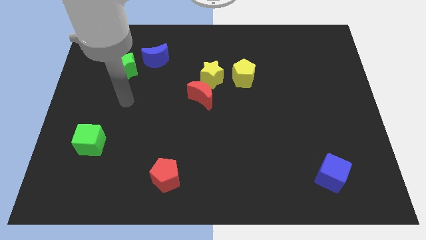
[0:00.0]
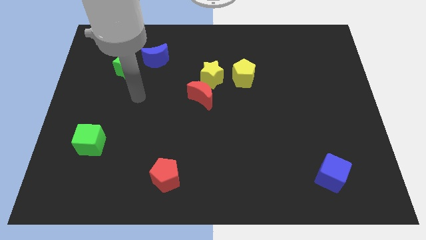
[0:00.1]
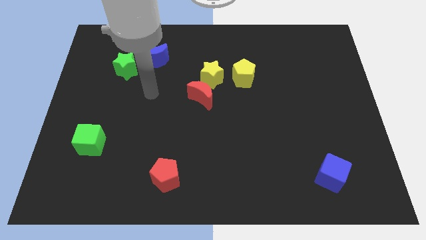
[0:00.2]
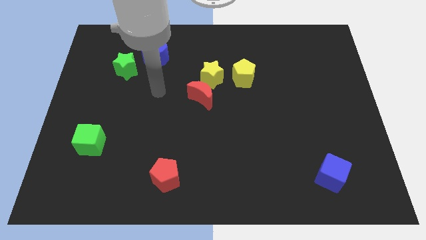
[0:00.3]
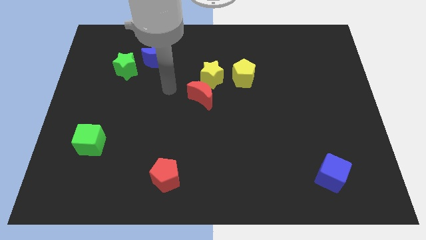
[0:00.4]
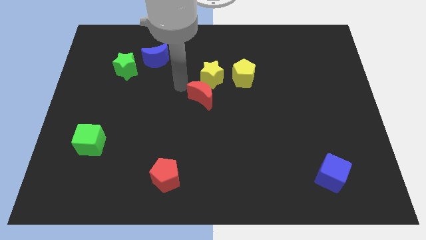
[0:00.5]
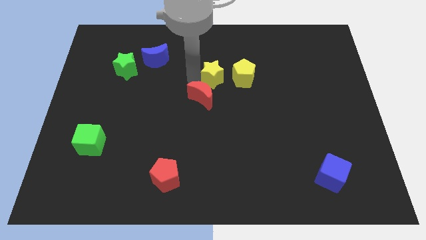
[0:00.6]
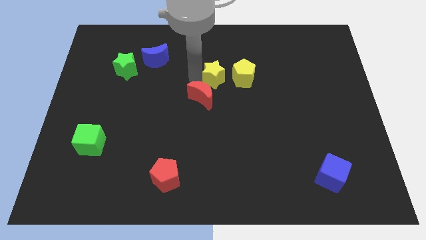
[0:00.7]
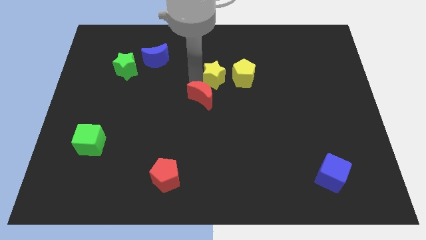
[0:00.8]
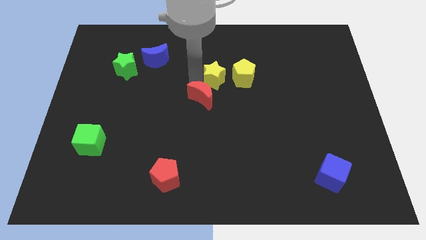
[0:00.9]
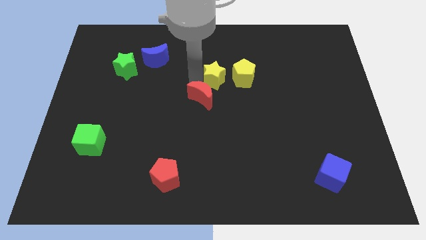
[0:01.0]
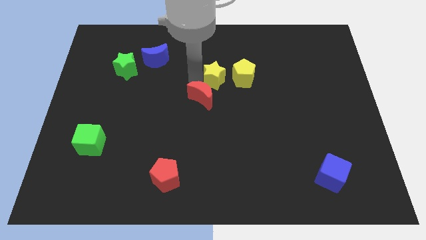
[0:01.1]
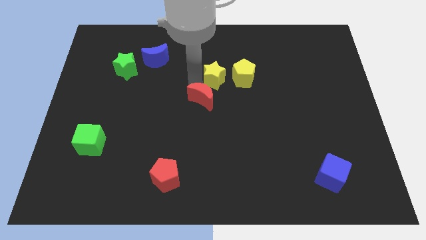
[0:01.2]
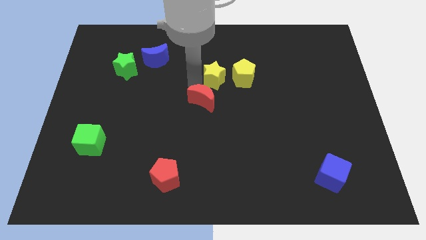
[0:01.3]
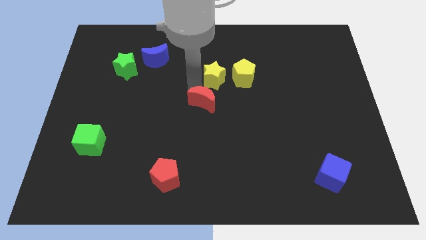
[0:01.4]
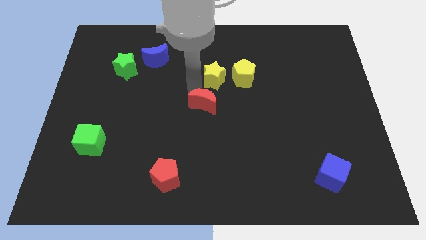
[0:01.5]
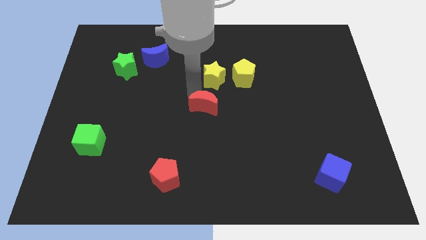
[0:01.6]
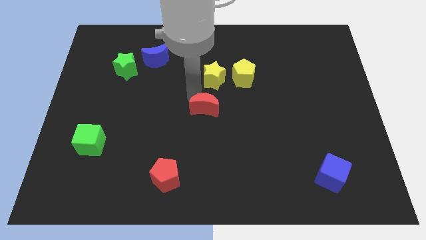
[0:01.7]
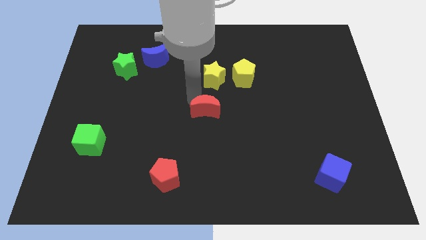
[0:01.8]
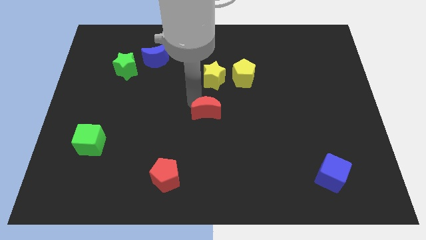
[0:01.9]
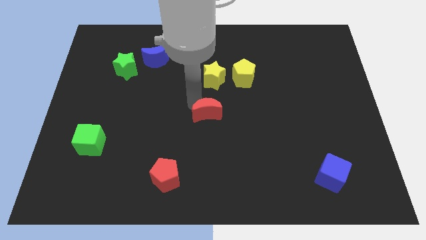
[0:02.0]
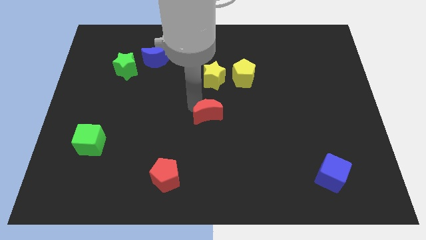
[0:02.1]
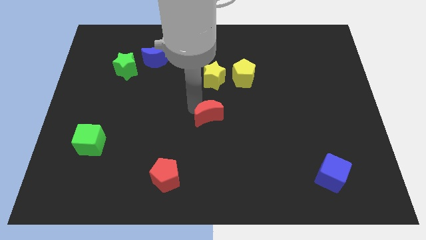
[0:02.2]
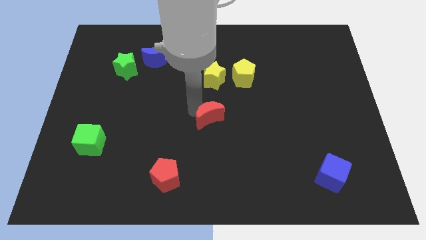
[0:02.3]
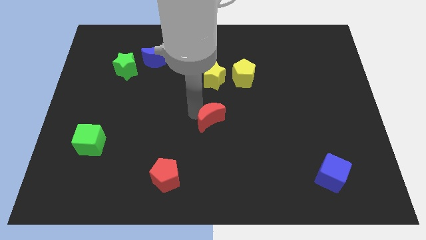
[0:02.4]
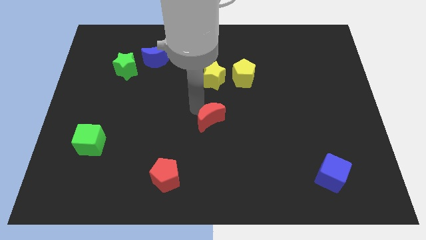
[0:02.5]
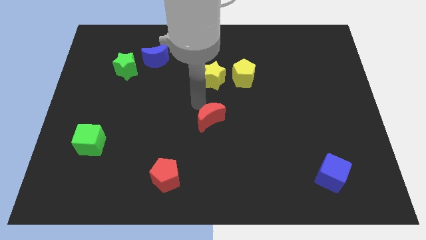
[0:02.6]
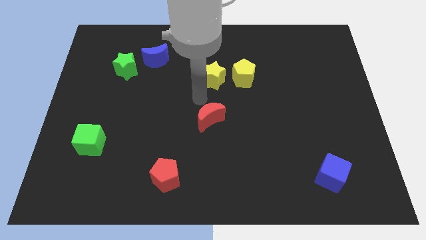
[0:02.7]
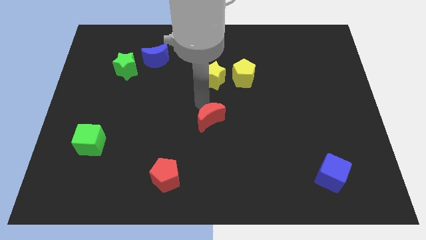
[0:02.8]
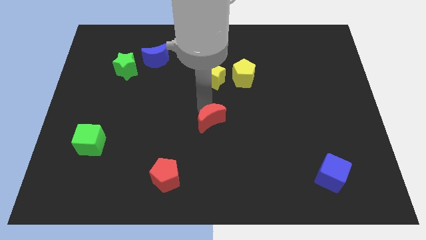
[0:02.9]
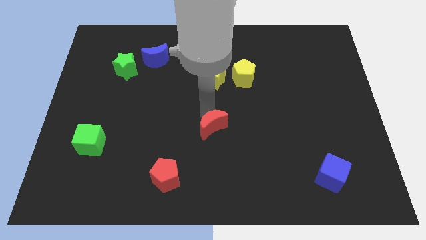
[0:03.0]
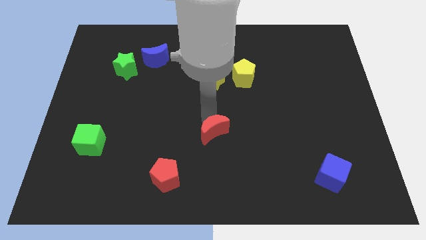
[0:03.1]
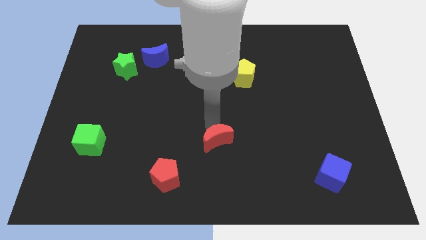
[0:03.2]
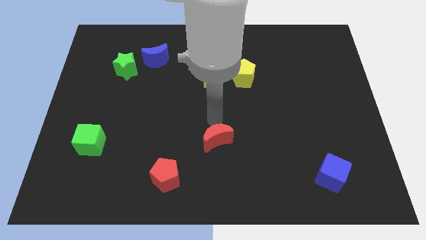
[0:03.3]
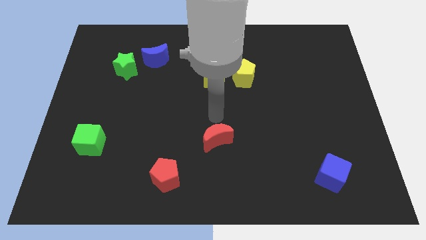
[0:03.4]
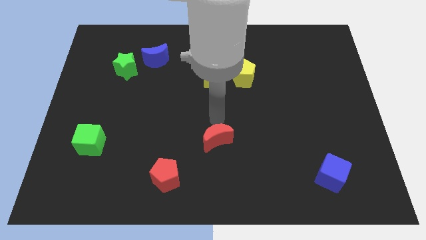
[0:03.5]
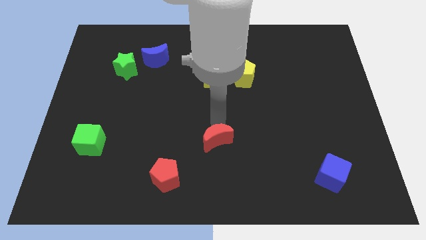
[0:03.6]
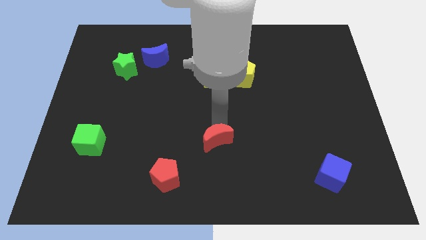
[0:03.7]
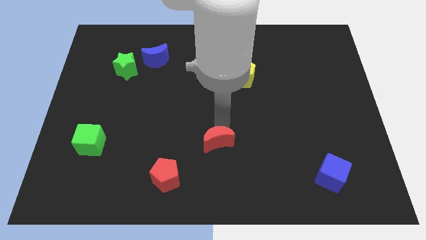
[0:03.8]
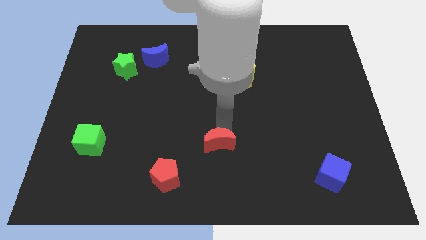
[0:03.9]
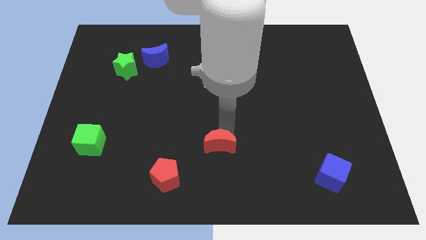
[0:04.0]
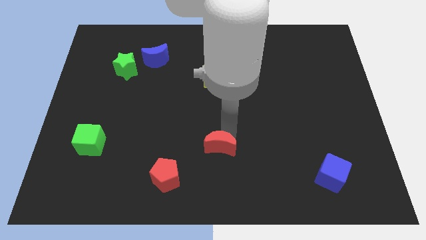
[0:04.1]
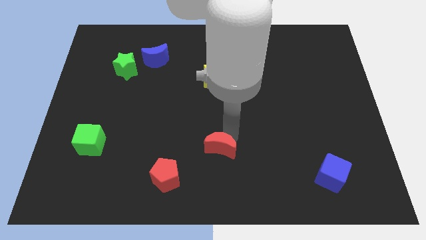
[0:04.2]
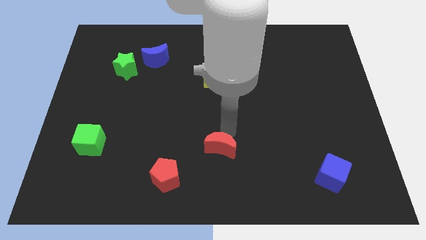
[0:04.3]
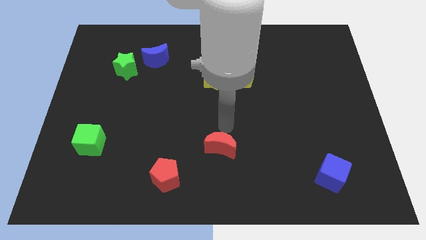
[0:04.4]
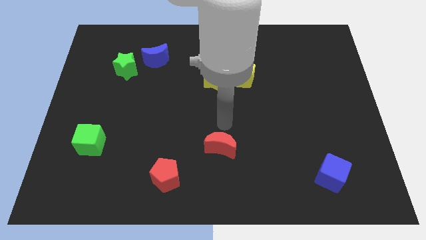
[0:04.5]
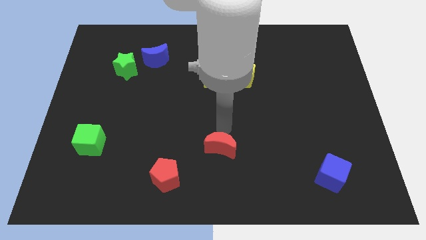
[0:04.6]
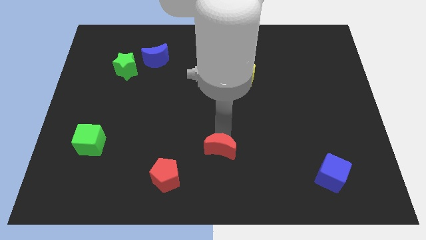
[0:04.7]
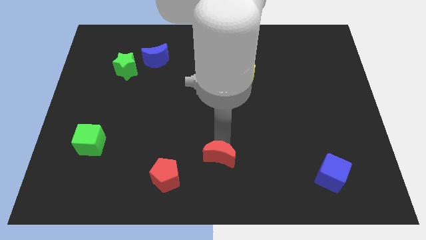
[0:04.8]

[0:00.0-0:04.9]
move the red moon to the right of the red pentagon

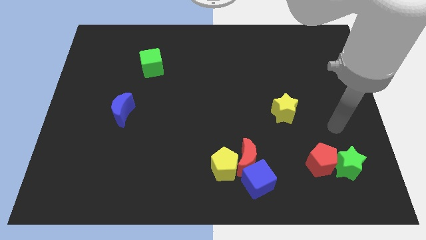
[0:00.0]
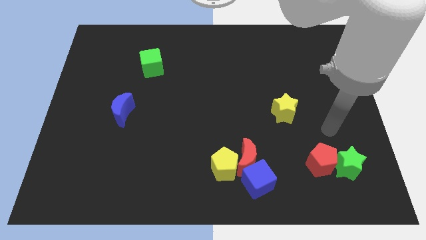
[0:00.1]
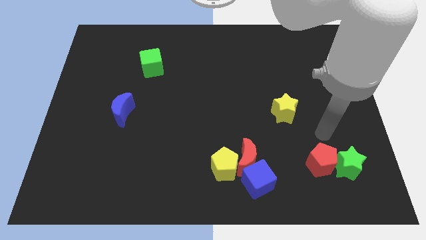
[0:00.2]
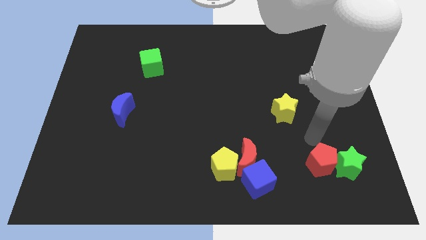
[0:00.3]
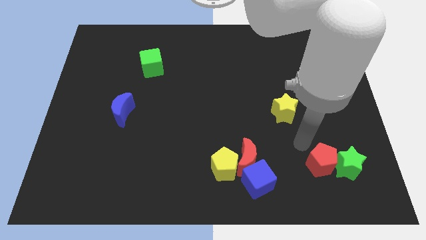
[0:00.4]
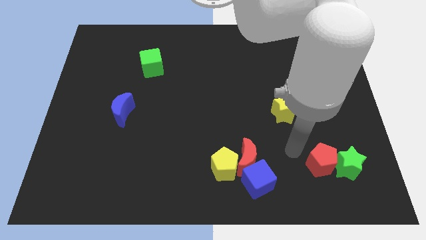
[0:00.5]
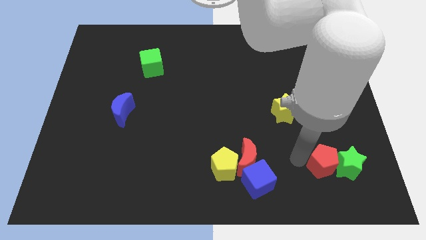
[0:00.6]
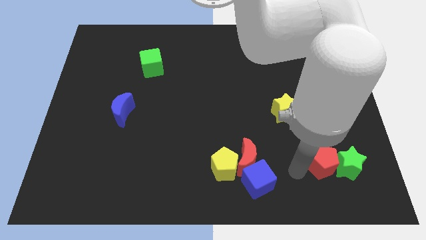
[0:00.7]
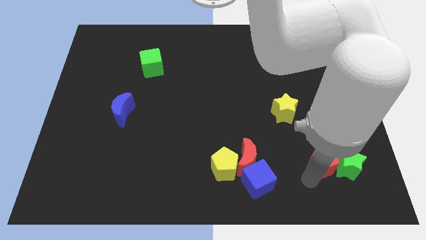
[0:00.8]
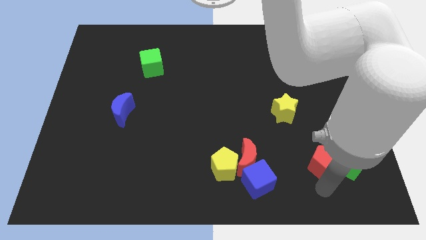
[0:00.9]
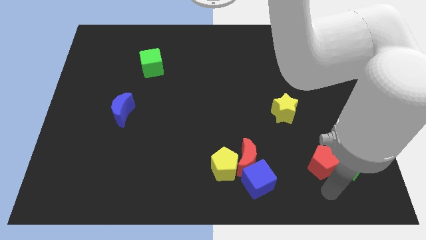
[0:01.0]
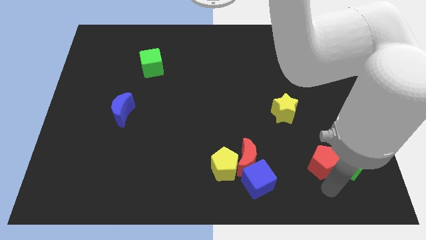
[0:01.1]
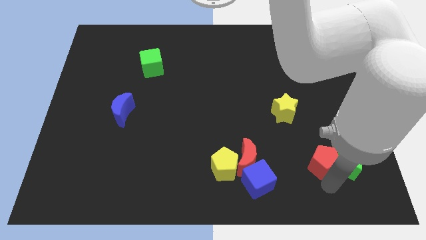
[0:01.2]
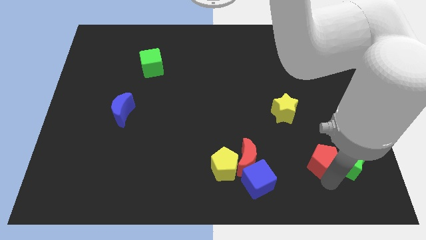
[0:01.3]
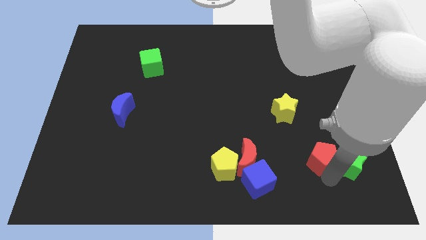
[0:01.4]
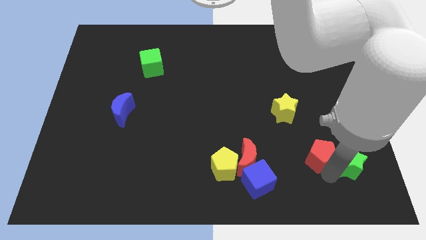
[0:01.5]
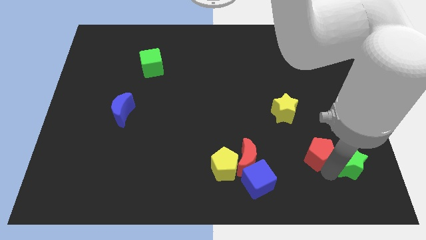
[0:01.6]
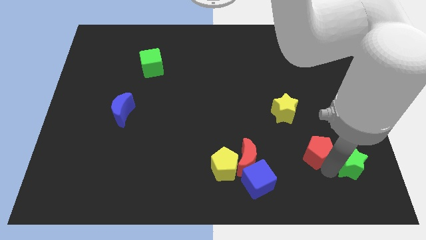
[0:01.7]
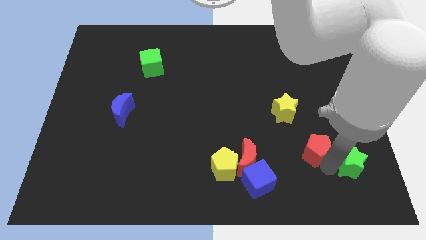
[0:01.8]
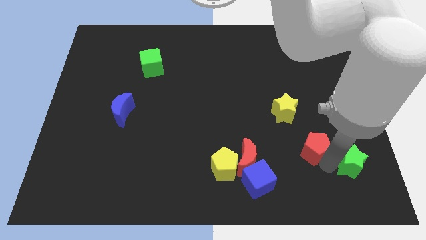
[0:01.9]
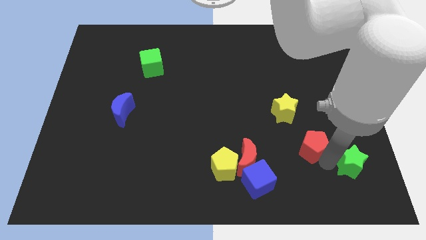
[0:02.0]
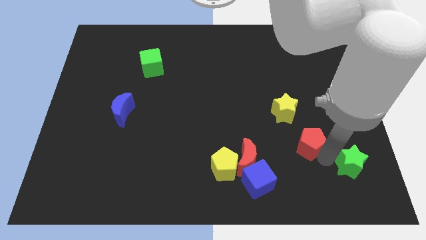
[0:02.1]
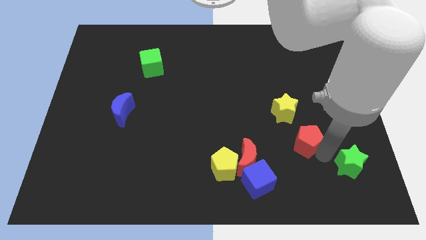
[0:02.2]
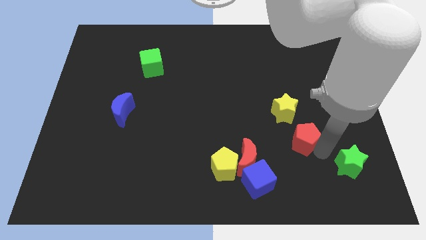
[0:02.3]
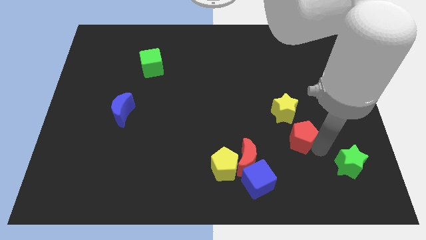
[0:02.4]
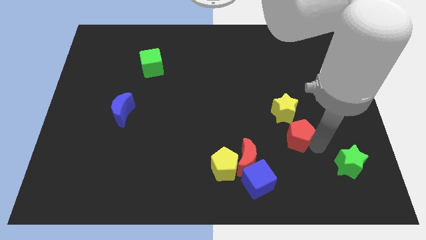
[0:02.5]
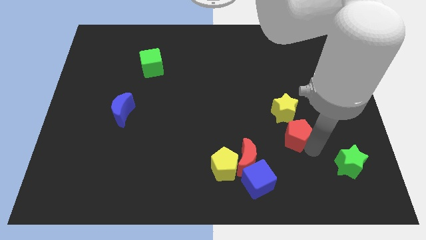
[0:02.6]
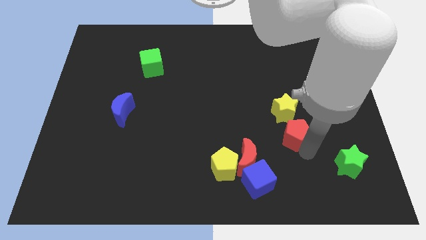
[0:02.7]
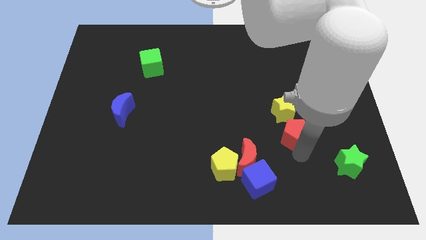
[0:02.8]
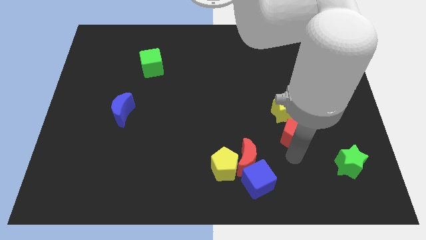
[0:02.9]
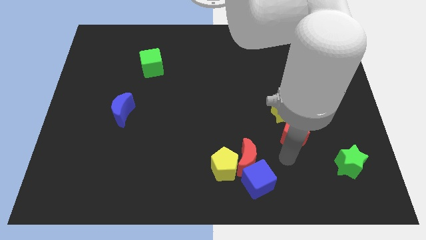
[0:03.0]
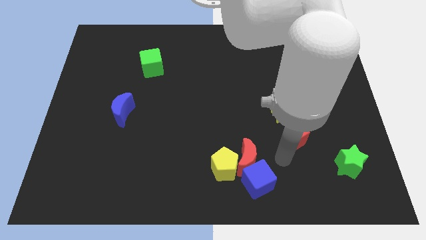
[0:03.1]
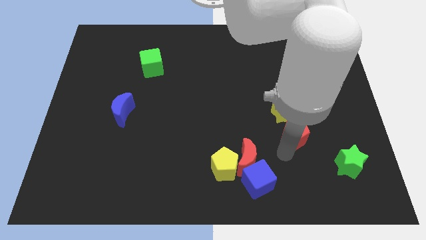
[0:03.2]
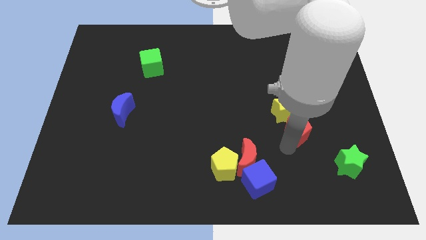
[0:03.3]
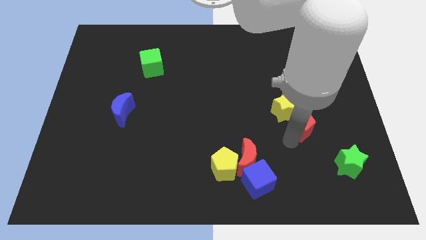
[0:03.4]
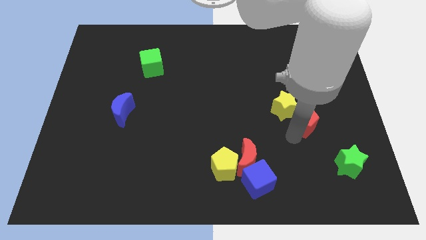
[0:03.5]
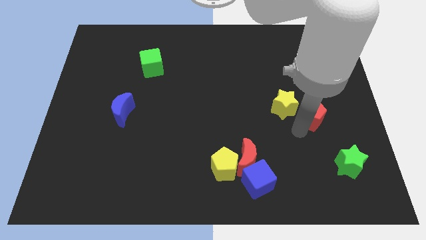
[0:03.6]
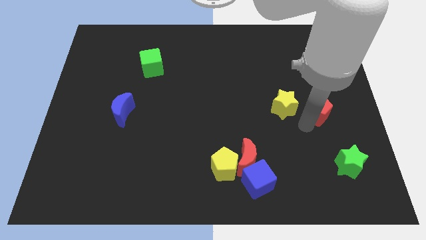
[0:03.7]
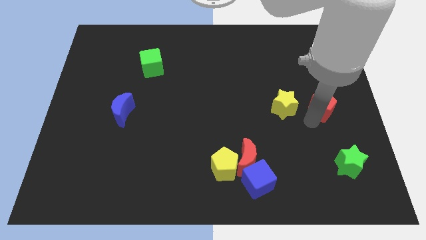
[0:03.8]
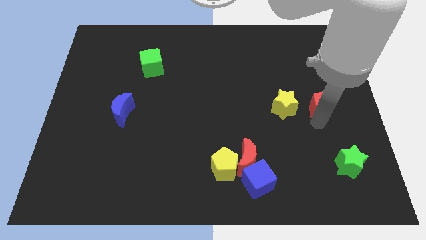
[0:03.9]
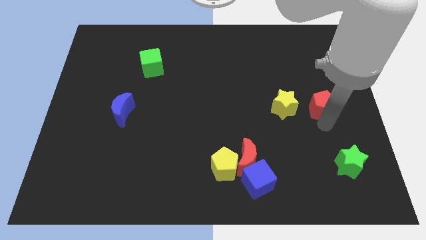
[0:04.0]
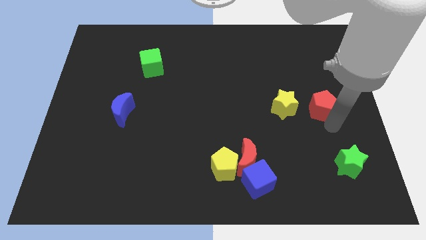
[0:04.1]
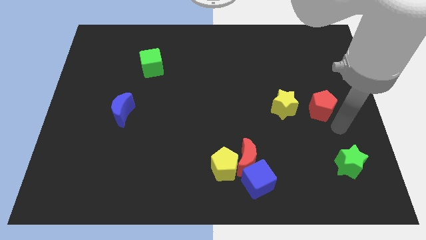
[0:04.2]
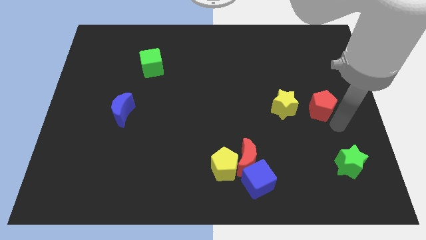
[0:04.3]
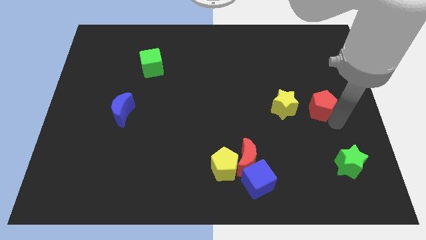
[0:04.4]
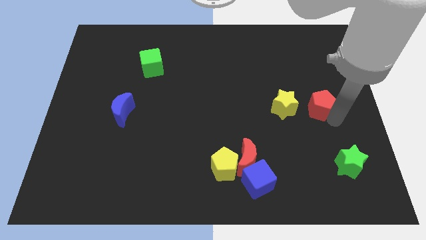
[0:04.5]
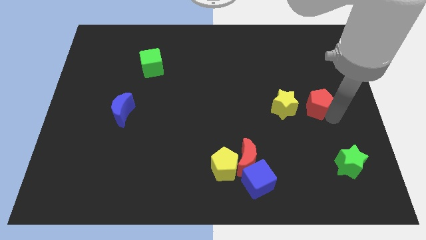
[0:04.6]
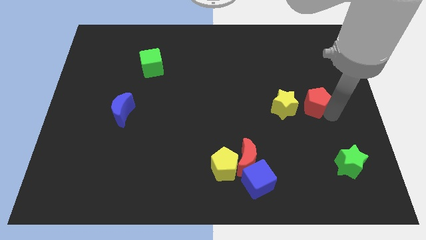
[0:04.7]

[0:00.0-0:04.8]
move the red pentagon to the top right side of the yellow star
